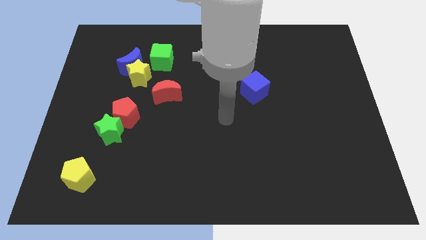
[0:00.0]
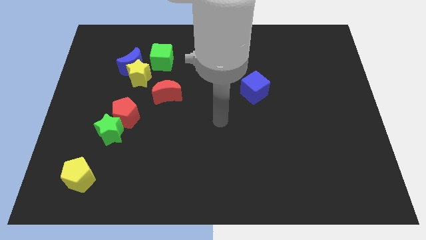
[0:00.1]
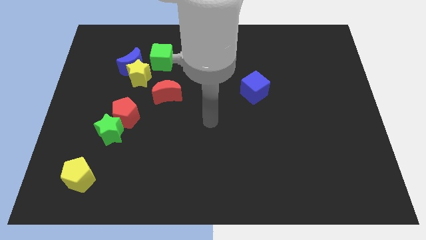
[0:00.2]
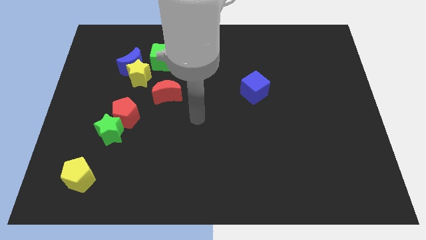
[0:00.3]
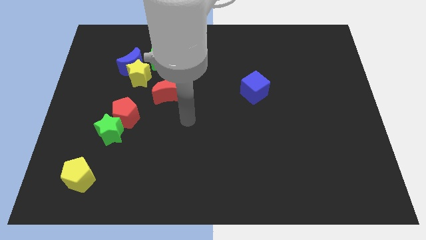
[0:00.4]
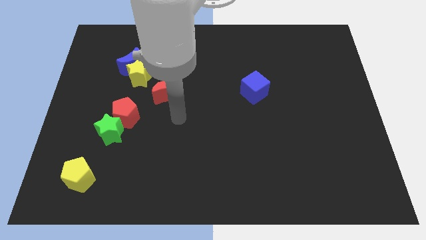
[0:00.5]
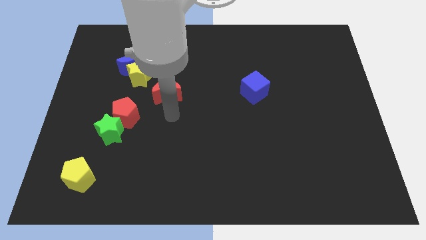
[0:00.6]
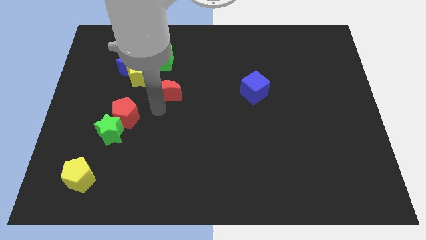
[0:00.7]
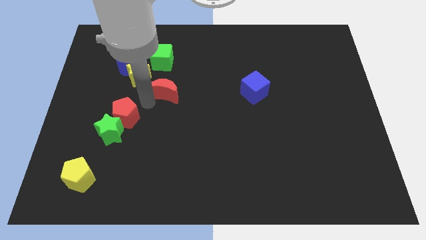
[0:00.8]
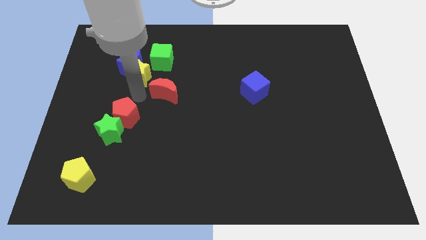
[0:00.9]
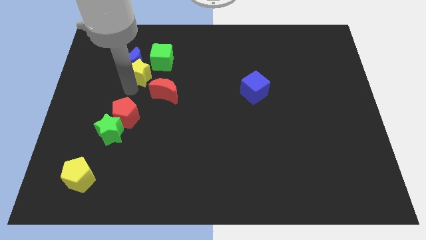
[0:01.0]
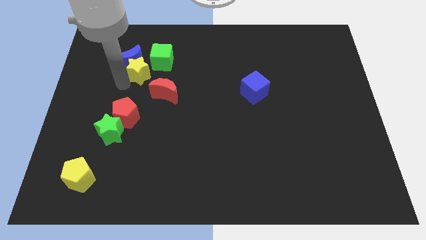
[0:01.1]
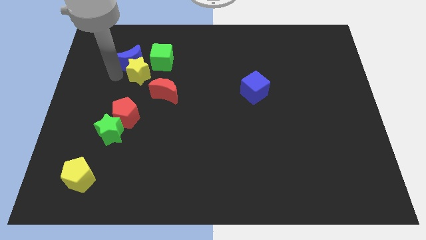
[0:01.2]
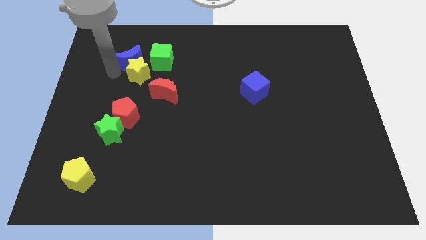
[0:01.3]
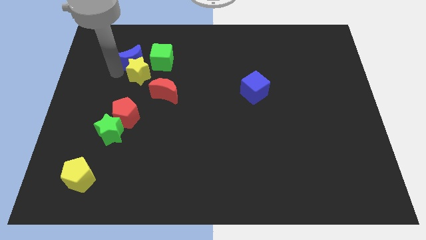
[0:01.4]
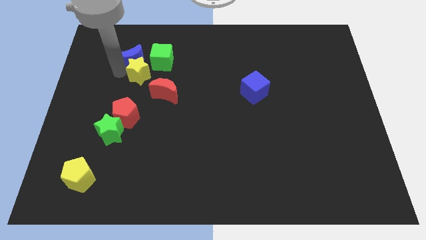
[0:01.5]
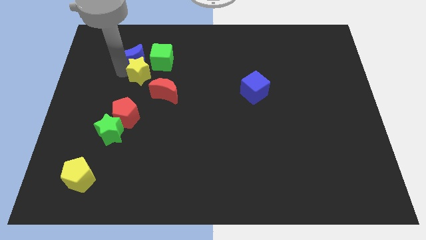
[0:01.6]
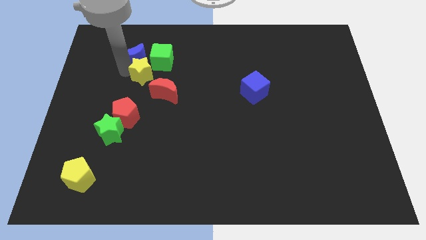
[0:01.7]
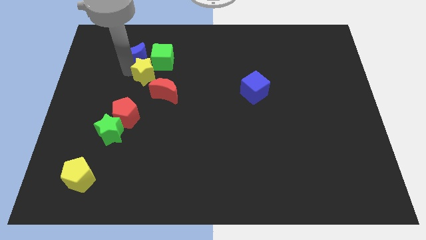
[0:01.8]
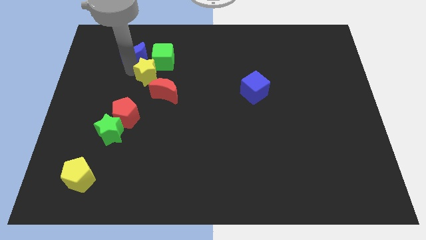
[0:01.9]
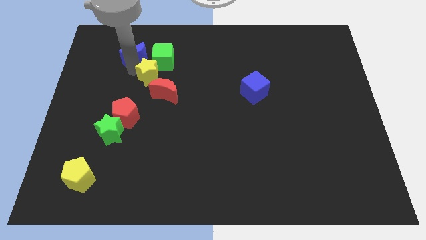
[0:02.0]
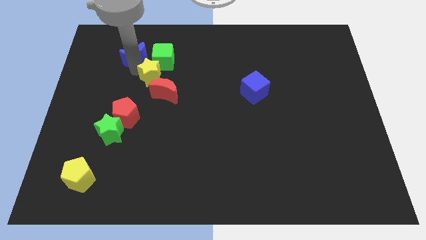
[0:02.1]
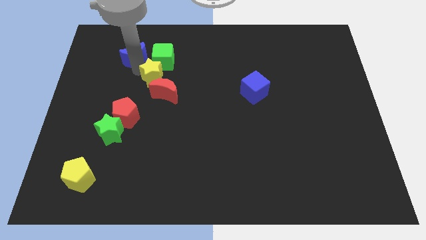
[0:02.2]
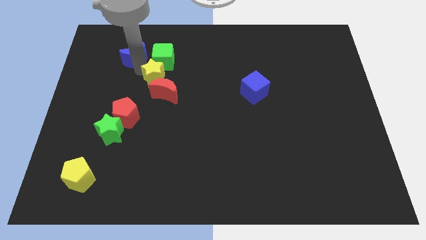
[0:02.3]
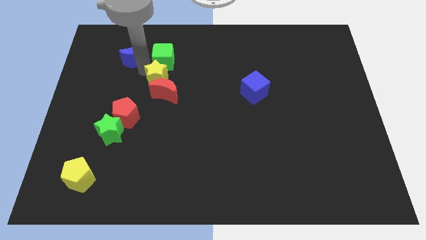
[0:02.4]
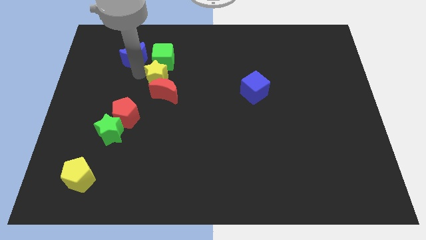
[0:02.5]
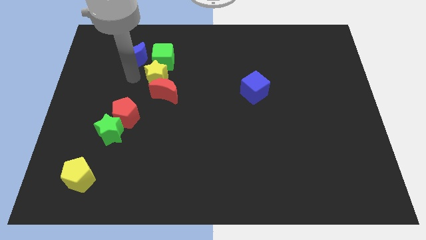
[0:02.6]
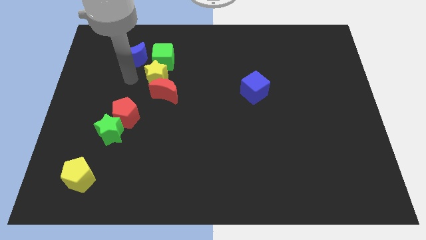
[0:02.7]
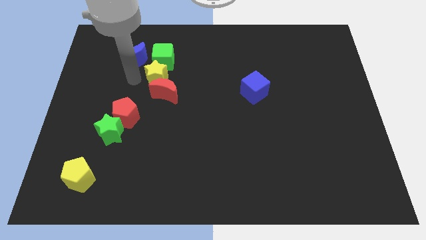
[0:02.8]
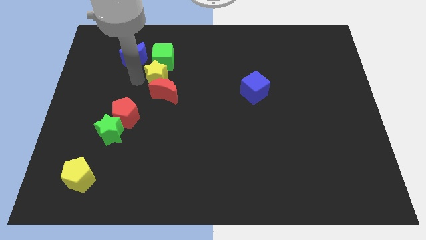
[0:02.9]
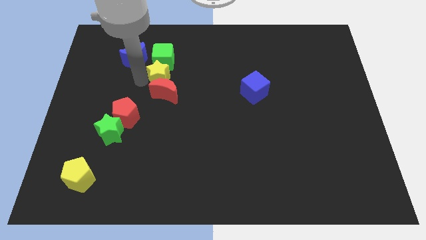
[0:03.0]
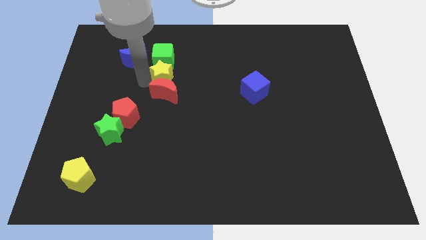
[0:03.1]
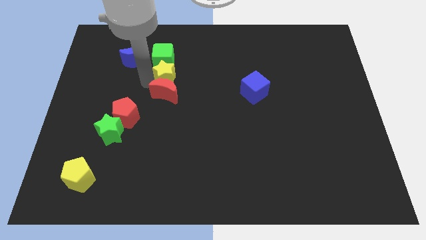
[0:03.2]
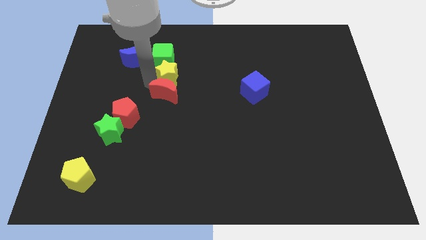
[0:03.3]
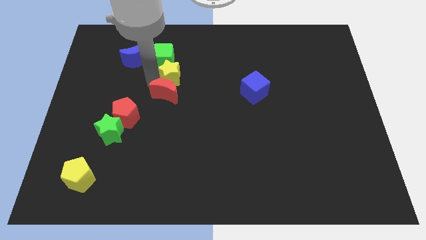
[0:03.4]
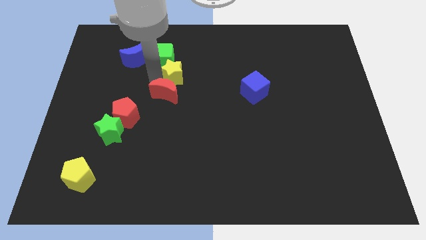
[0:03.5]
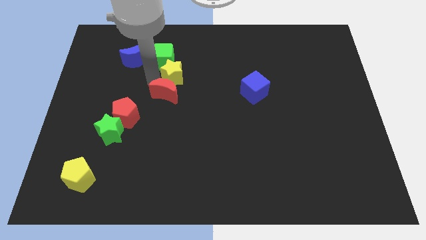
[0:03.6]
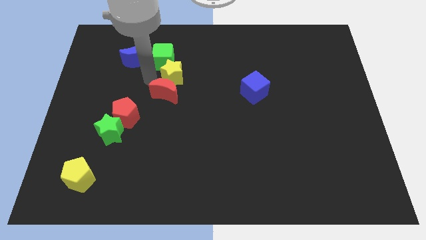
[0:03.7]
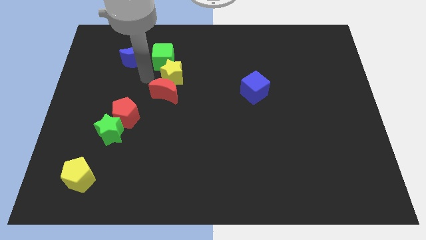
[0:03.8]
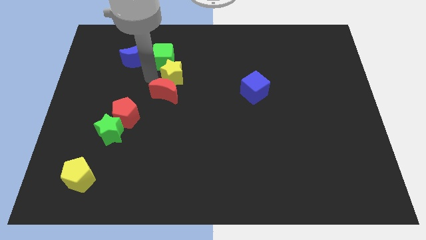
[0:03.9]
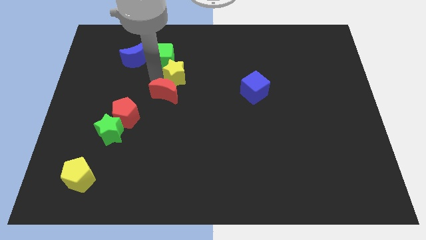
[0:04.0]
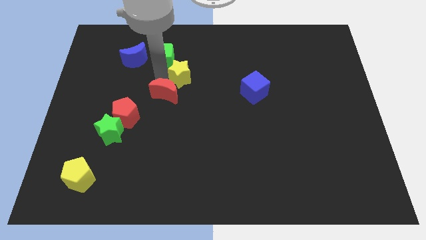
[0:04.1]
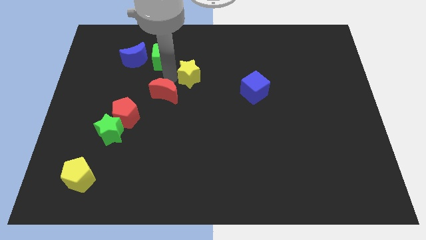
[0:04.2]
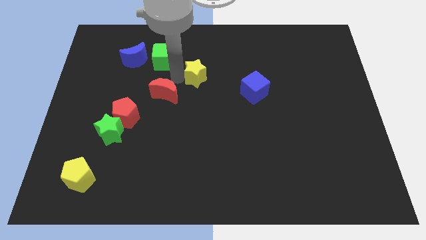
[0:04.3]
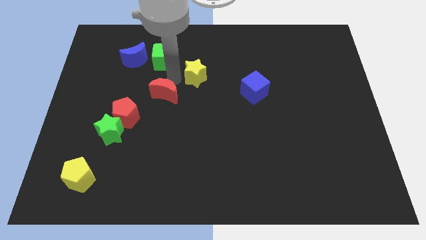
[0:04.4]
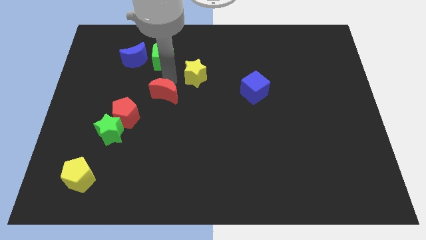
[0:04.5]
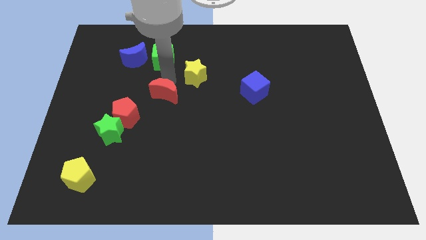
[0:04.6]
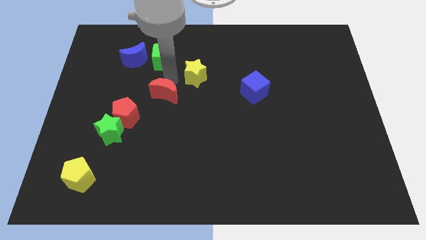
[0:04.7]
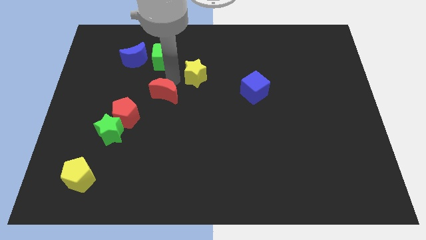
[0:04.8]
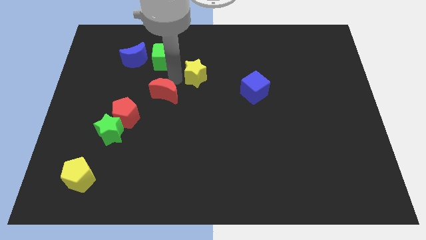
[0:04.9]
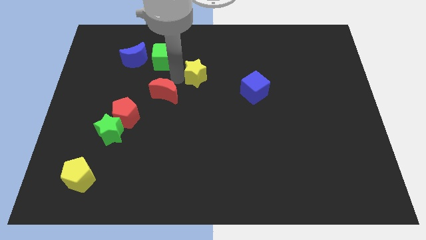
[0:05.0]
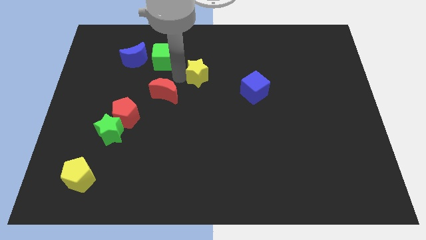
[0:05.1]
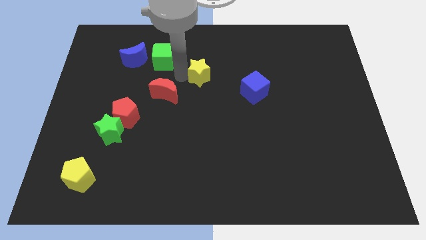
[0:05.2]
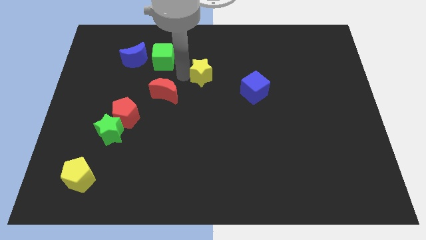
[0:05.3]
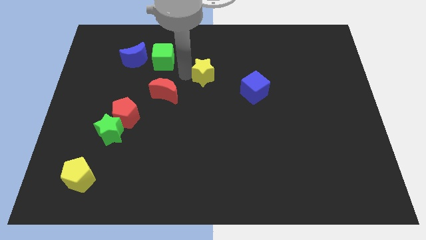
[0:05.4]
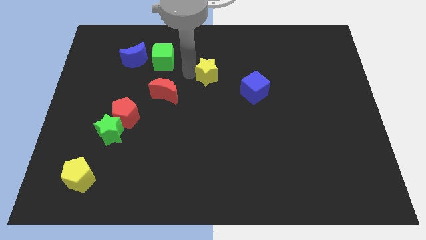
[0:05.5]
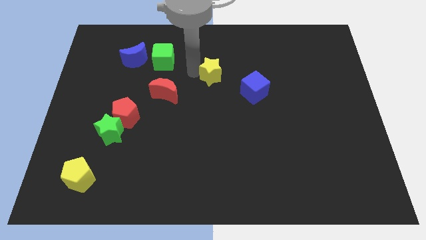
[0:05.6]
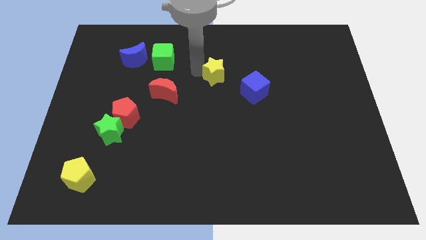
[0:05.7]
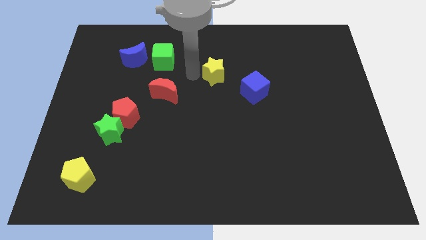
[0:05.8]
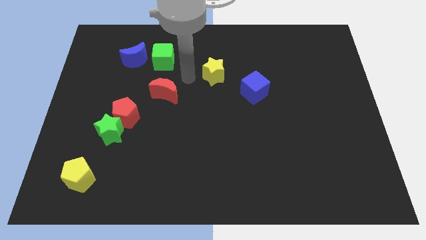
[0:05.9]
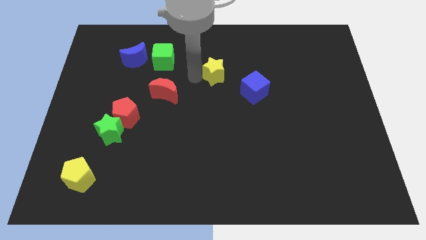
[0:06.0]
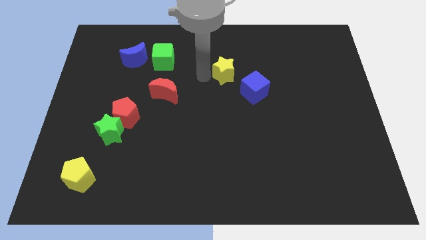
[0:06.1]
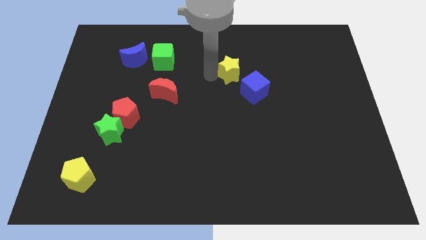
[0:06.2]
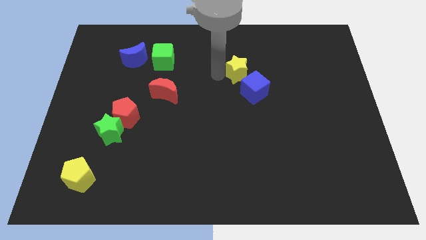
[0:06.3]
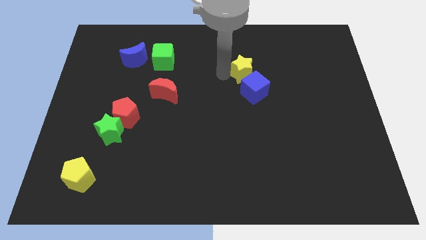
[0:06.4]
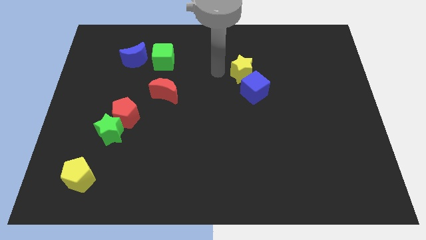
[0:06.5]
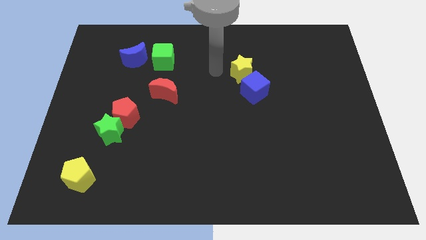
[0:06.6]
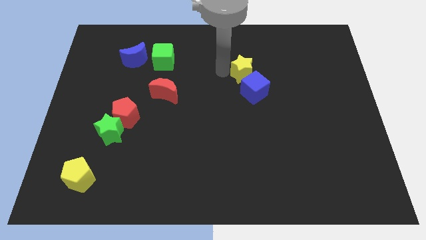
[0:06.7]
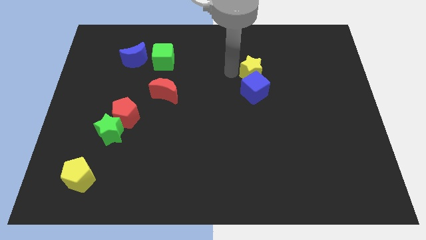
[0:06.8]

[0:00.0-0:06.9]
slide the yellow star to the top right of the blue cube
